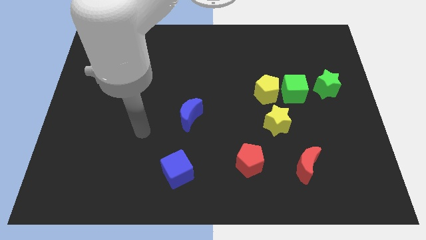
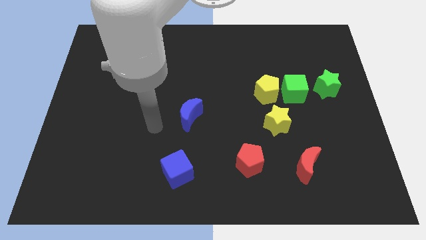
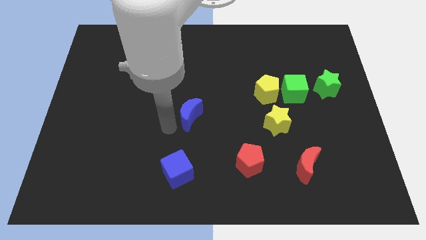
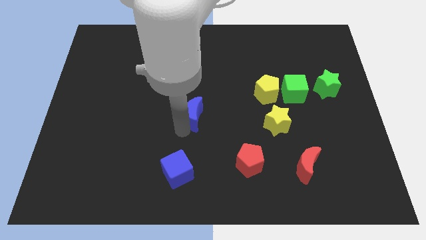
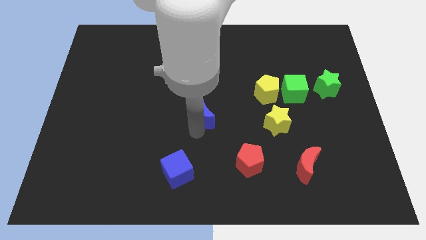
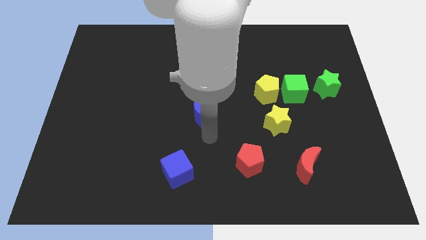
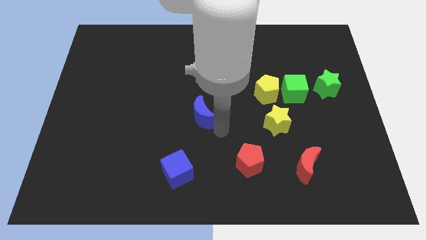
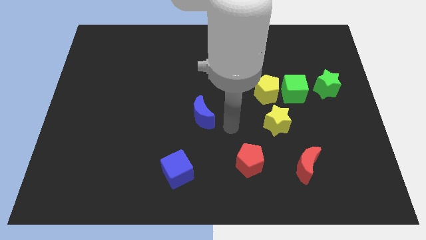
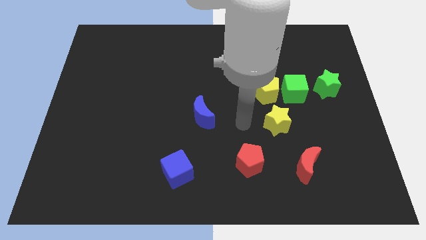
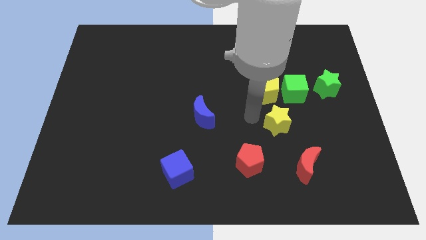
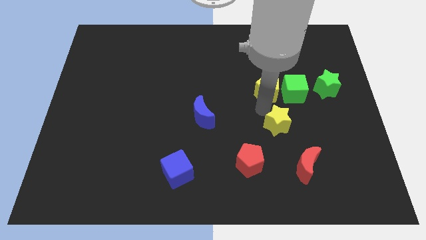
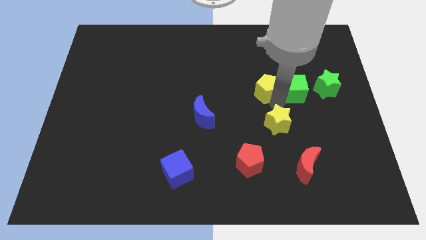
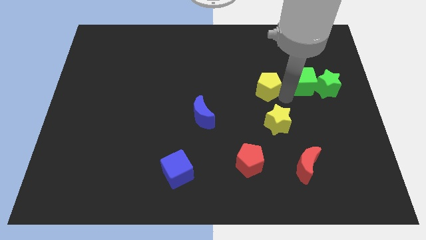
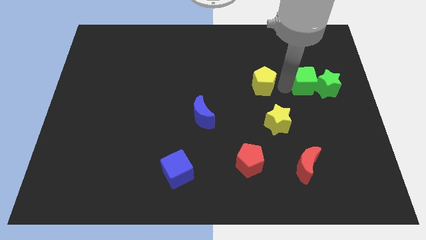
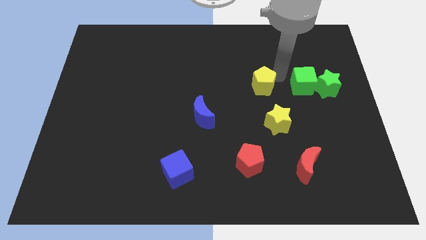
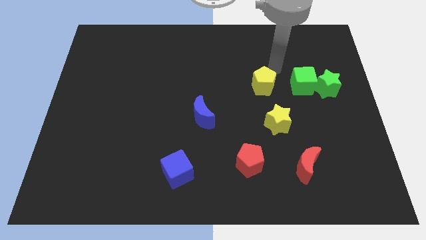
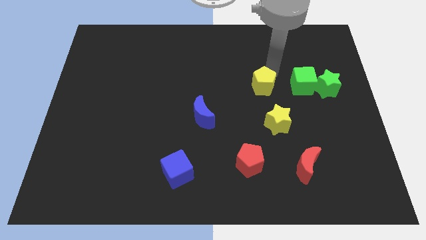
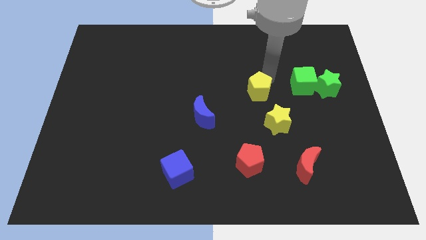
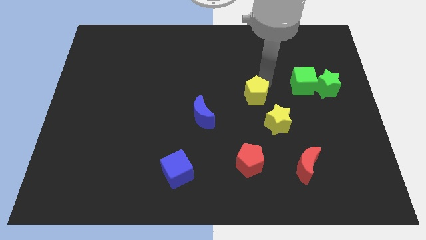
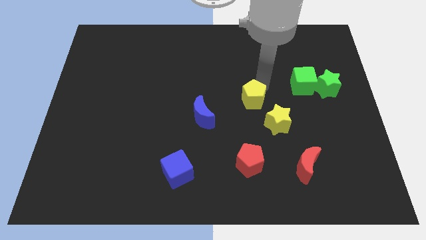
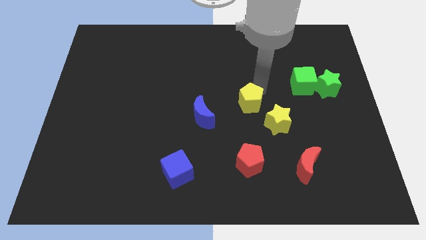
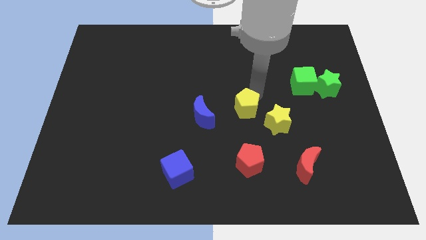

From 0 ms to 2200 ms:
slightly slide the yellow pentagon downwards and to the left

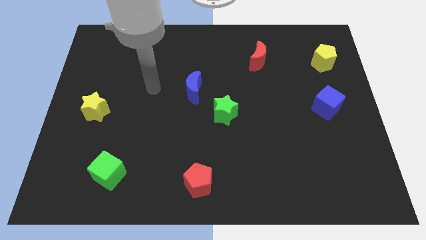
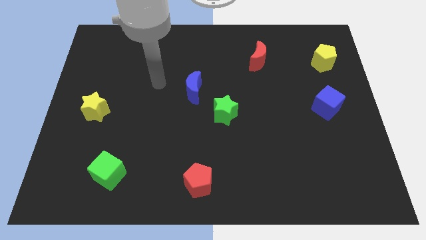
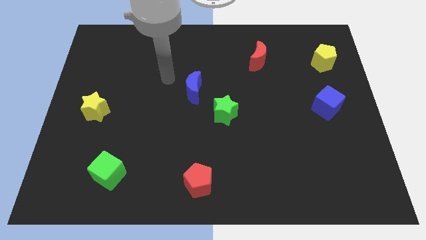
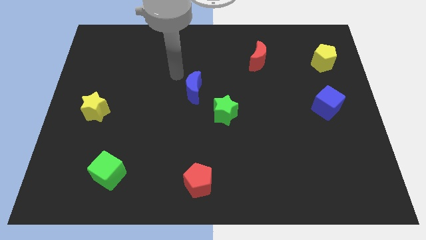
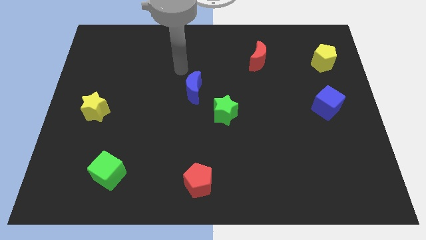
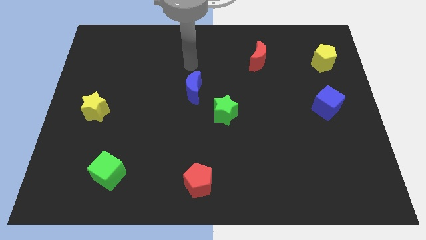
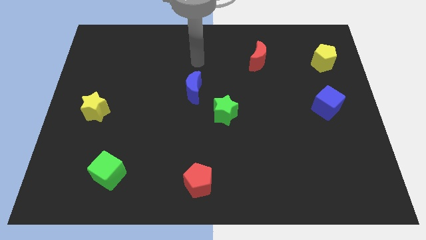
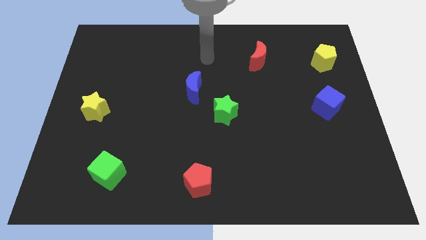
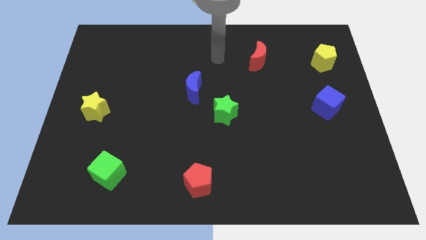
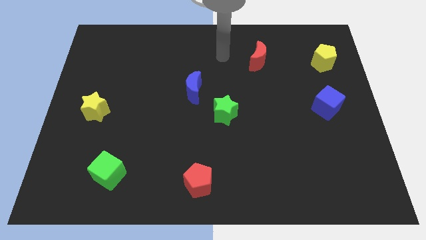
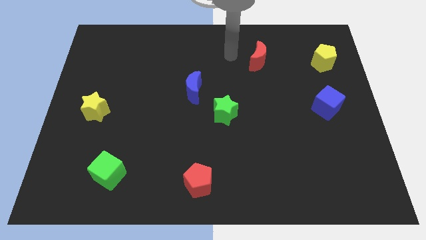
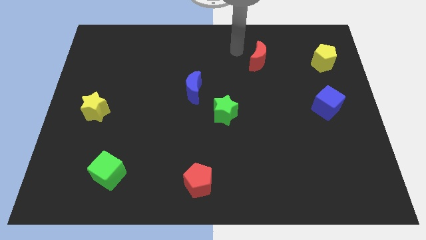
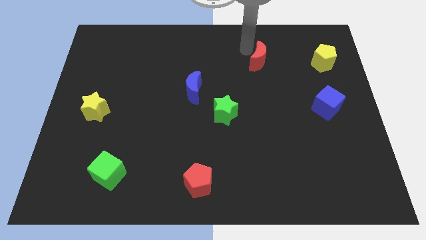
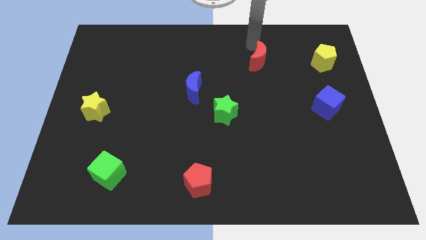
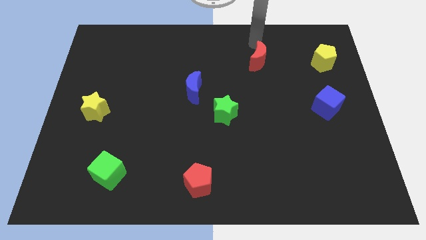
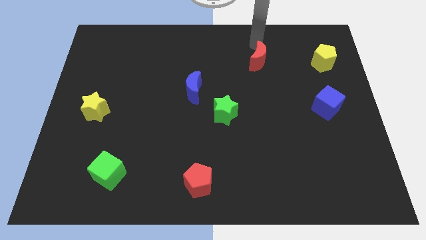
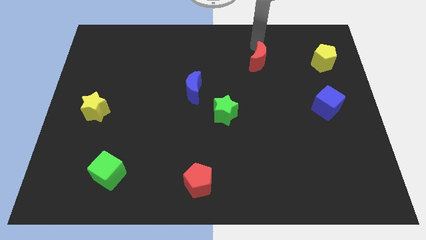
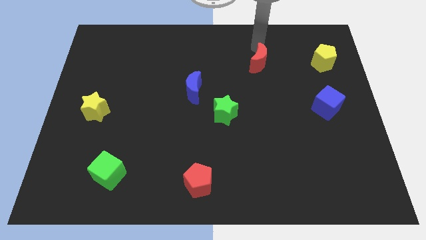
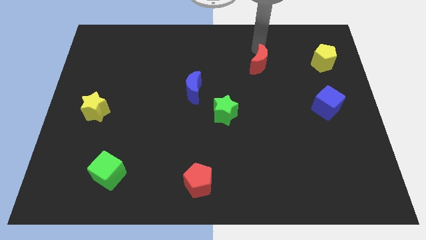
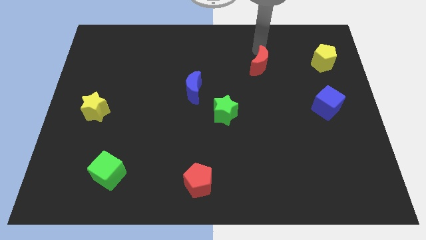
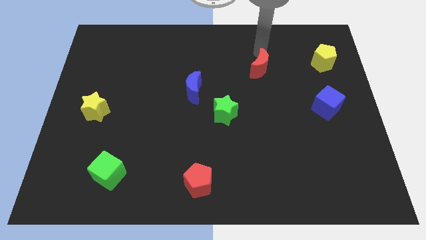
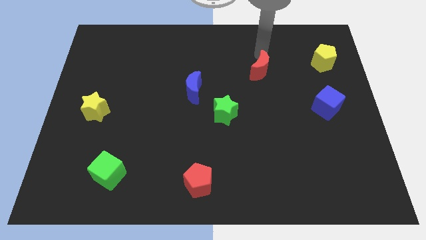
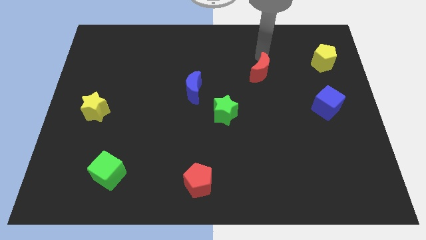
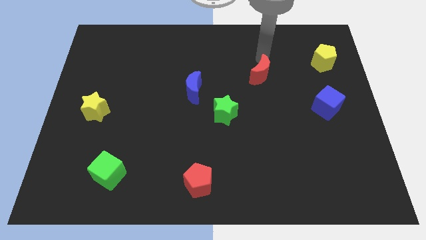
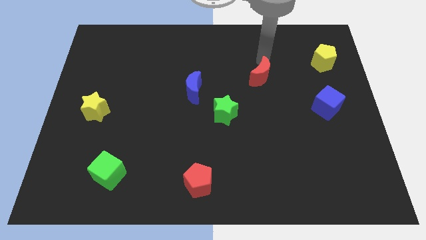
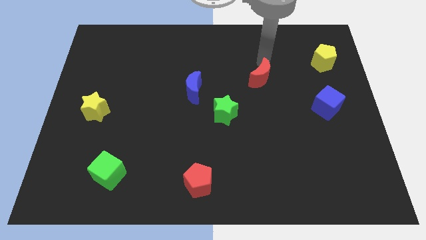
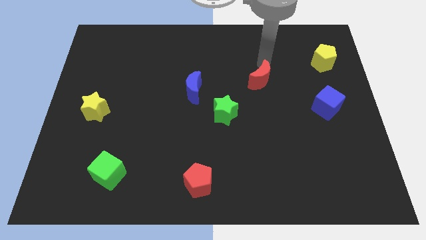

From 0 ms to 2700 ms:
slightly move the red moon down

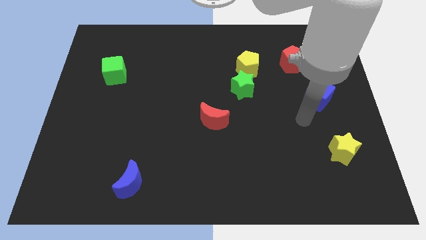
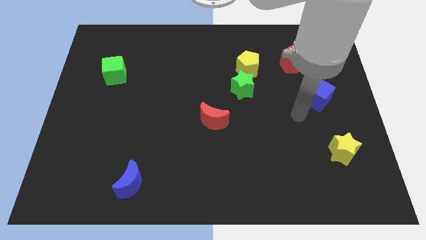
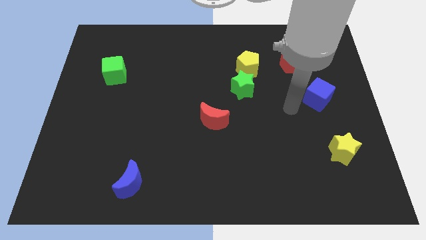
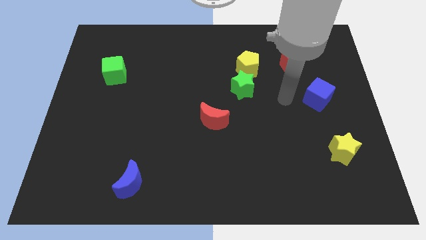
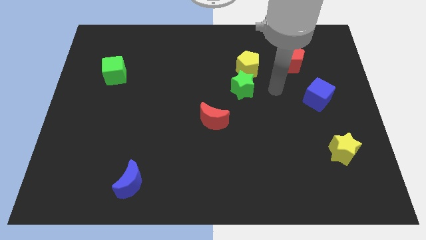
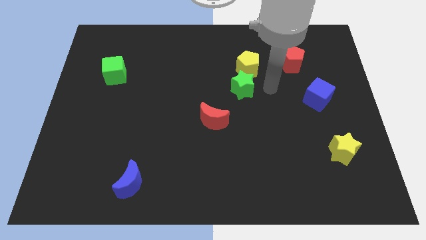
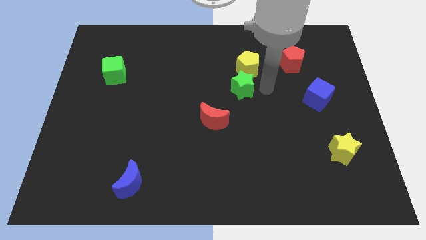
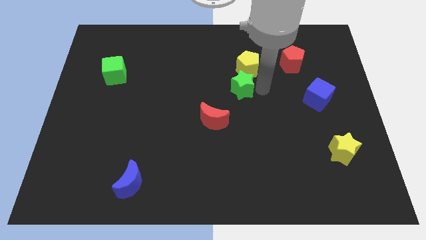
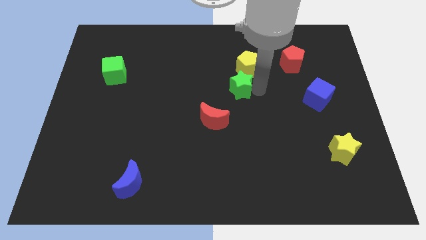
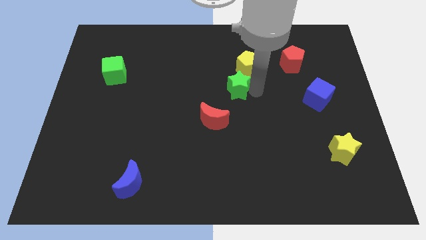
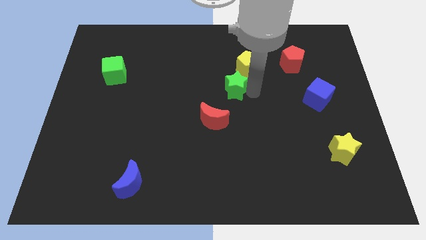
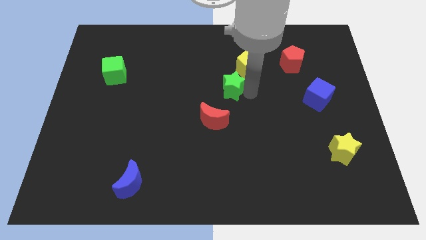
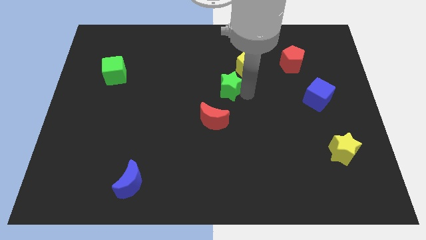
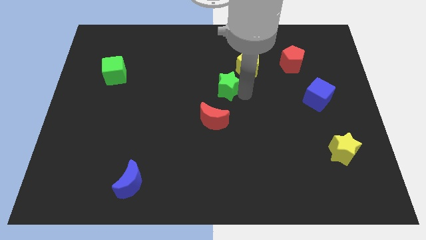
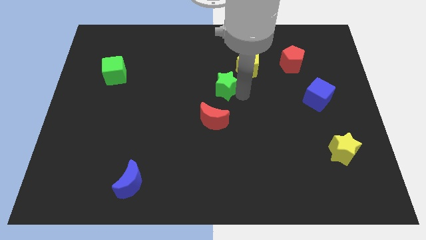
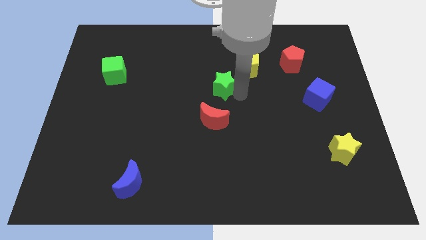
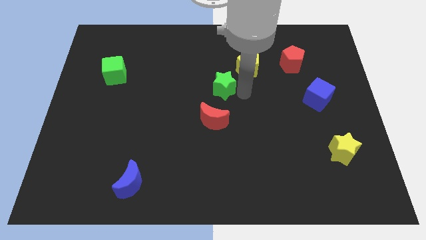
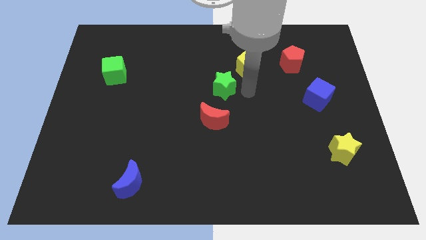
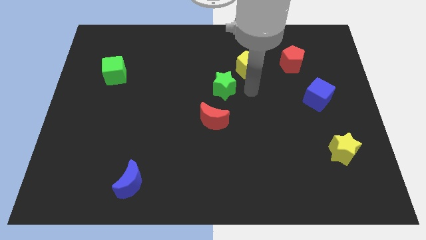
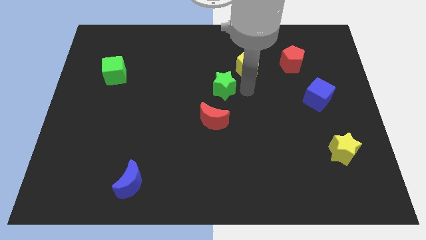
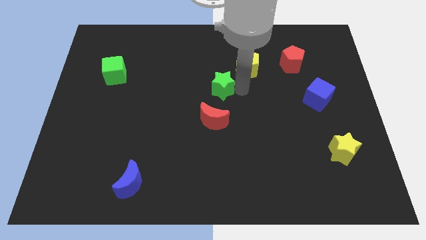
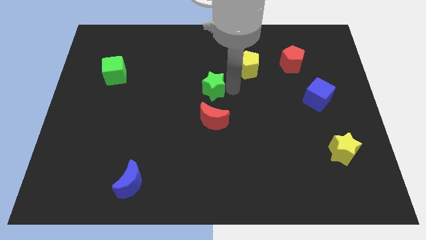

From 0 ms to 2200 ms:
move the green star a little bit left

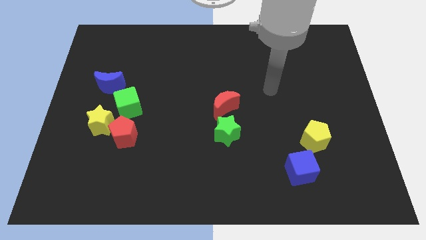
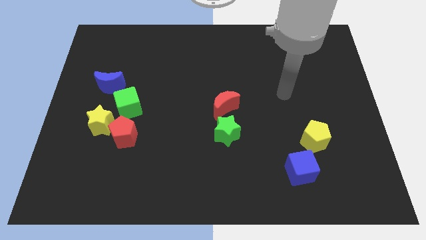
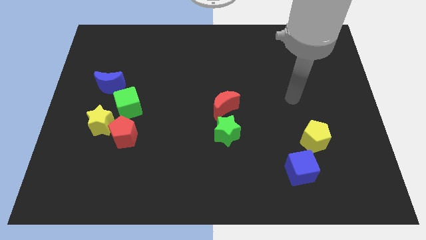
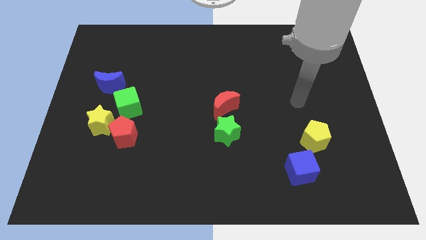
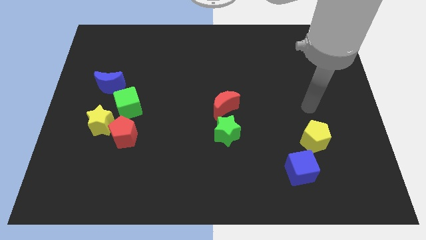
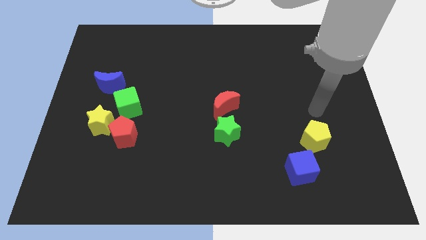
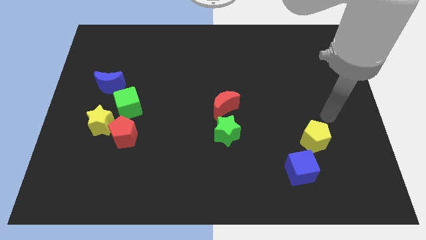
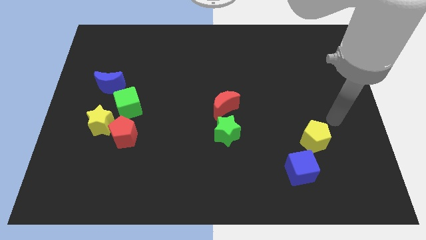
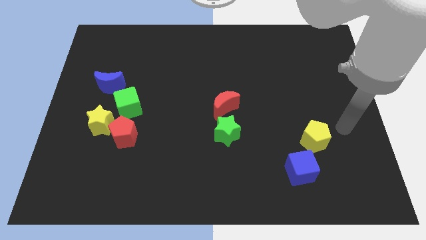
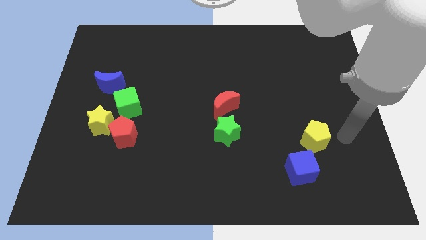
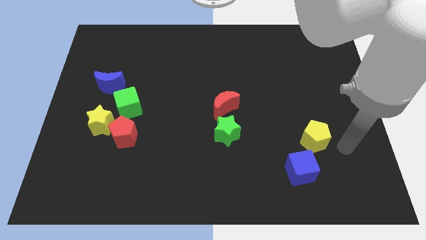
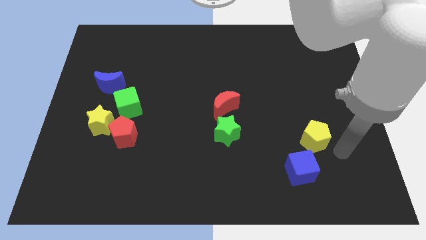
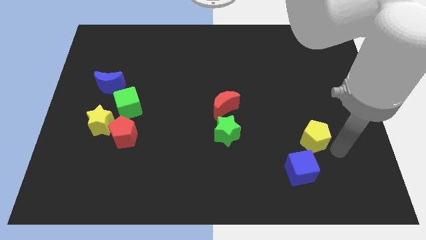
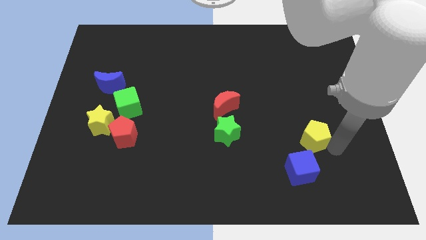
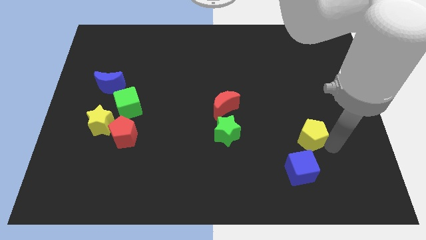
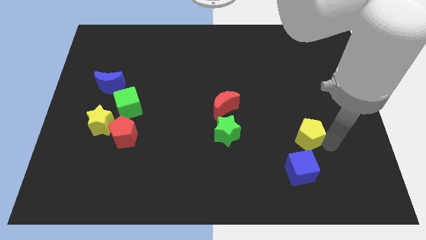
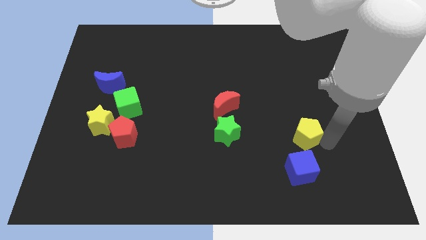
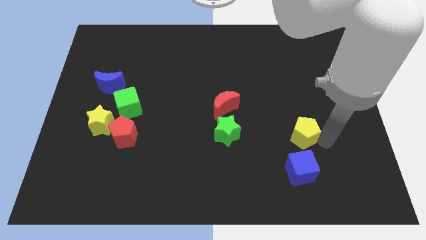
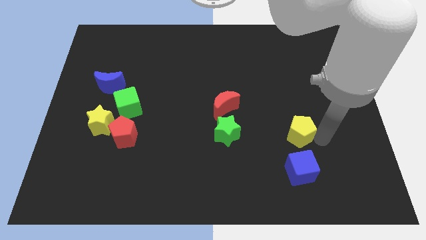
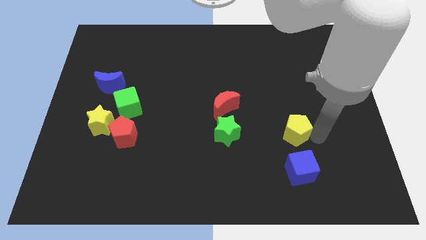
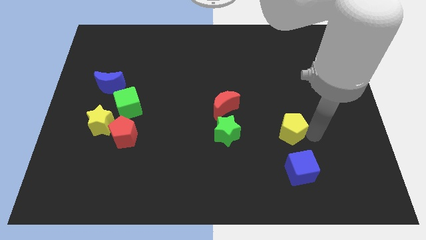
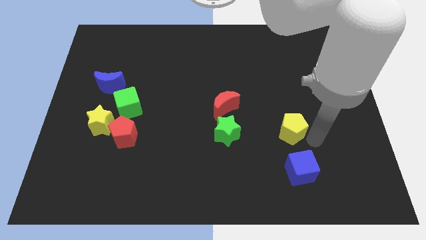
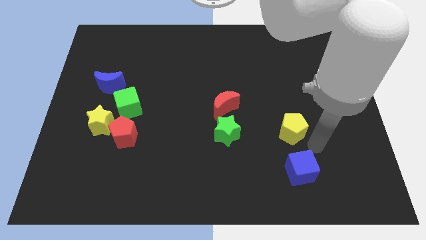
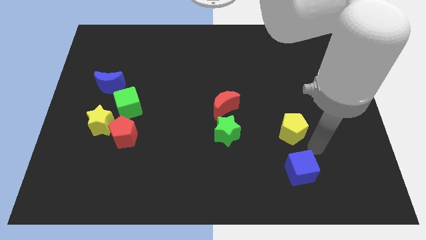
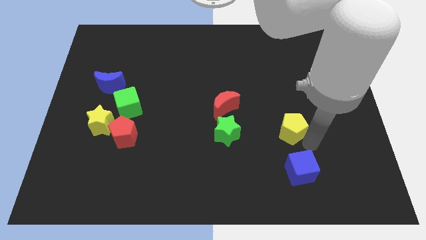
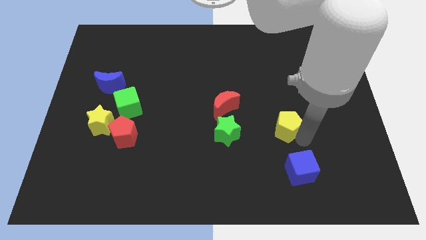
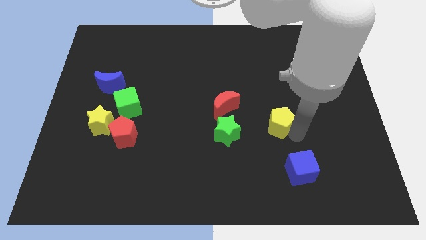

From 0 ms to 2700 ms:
slide the yellow pentagon a little up and left diagonally
